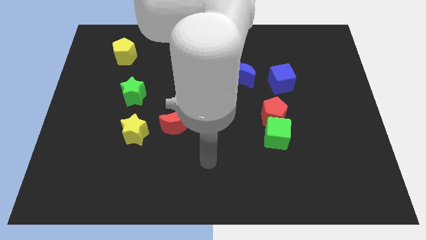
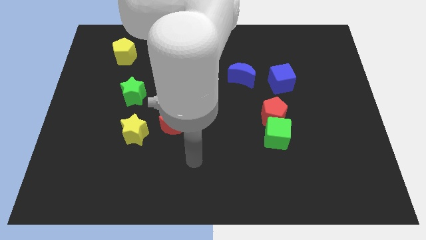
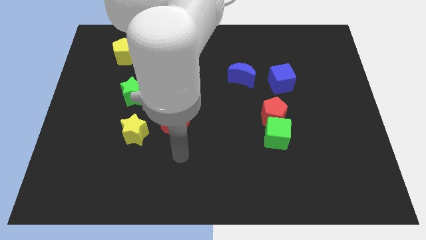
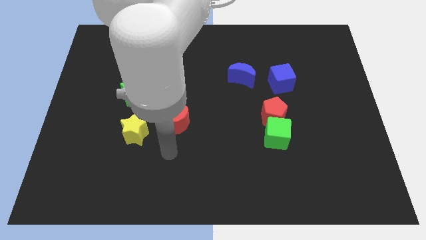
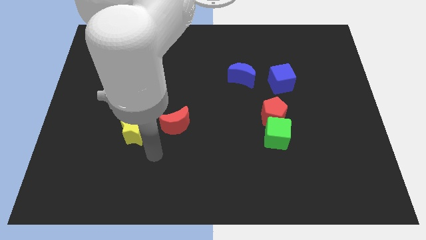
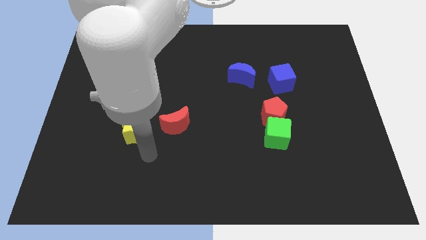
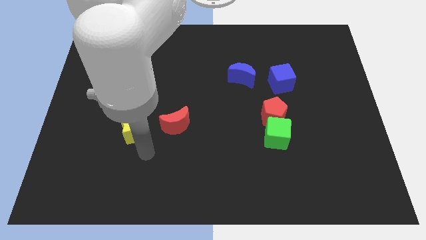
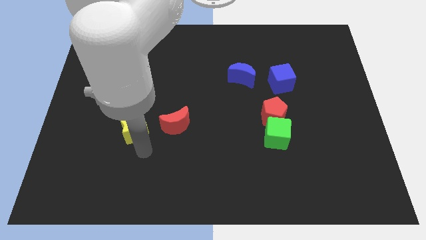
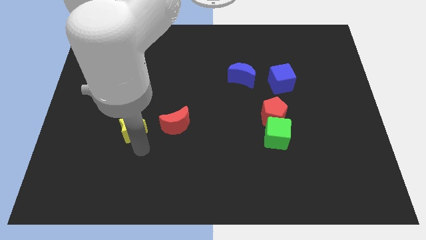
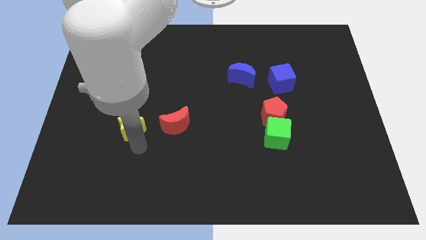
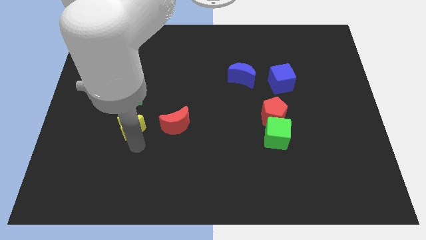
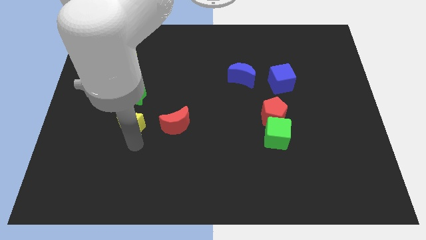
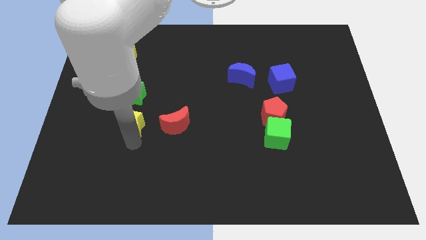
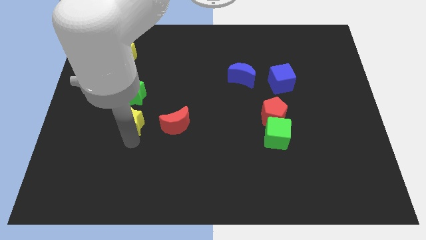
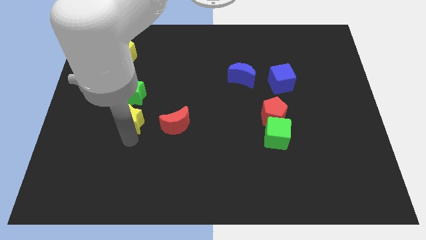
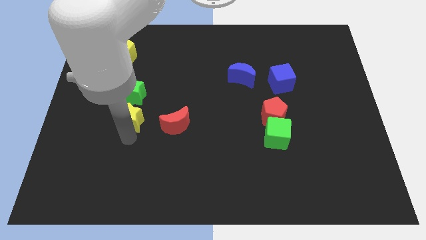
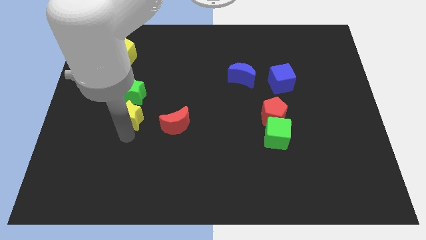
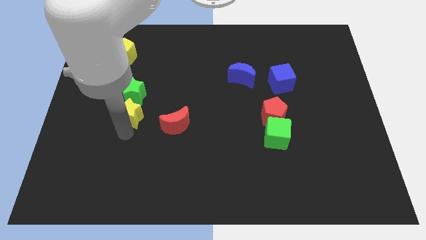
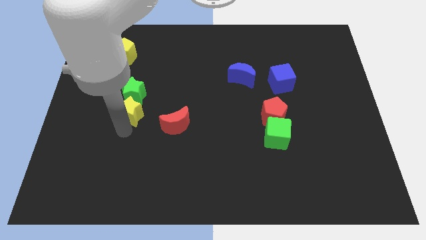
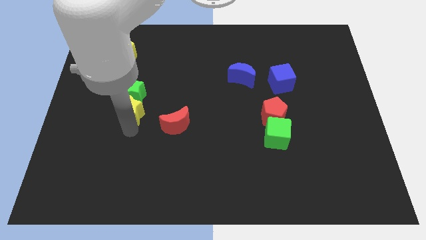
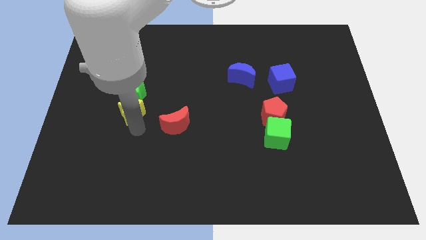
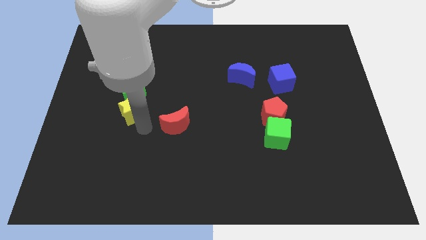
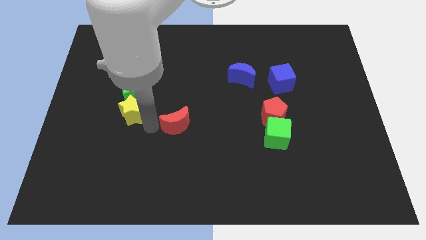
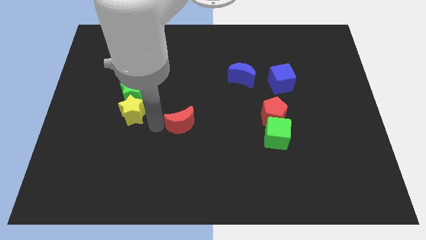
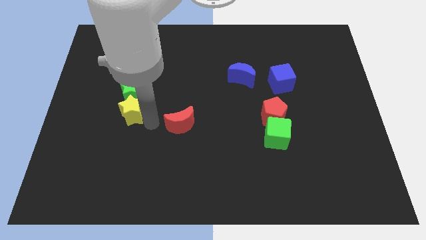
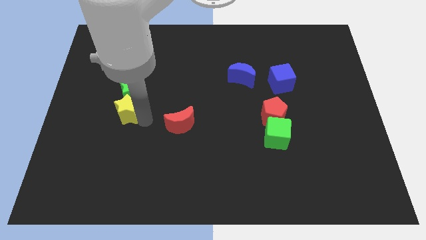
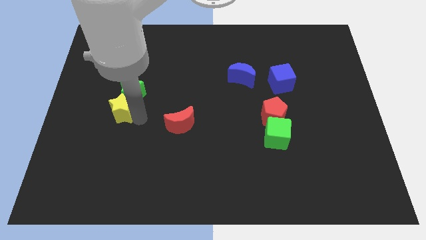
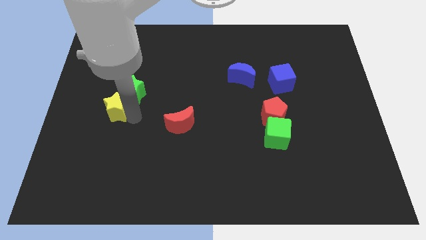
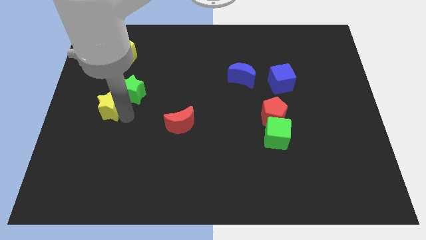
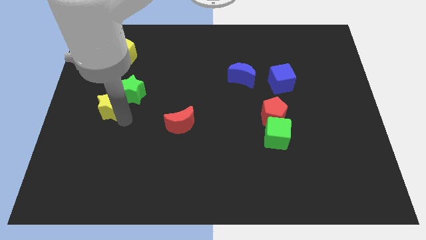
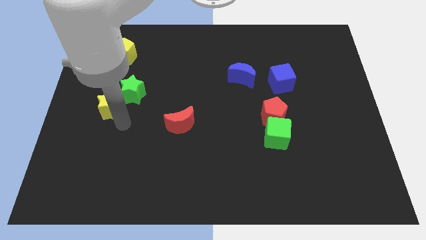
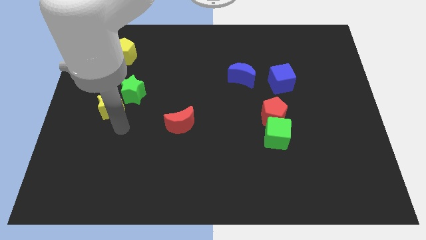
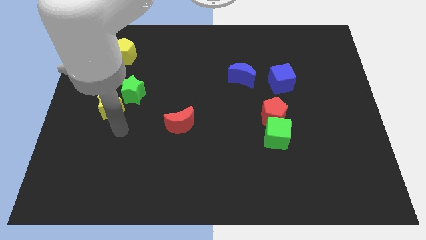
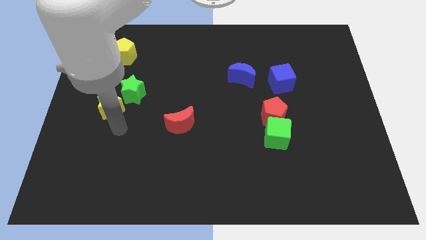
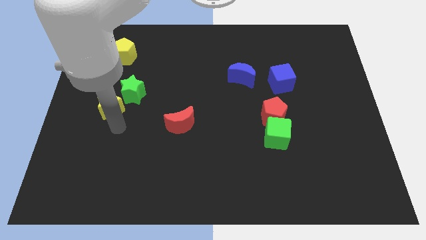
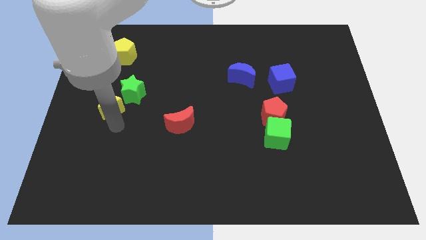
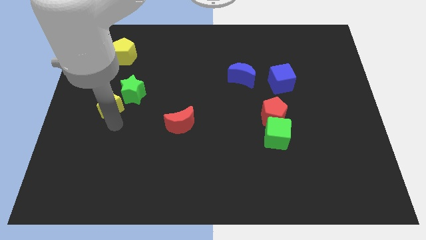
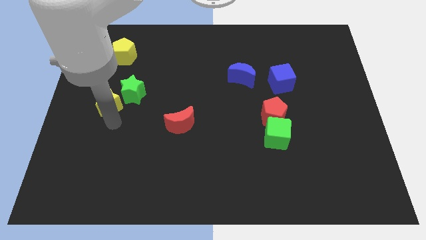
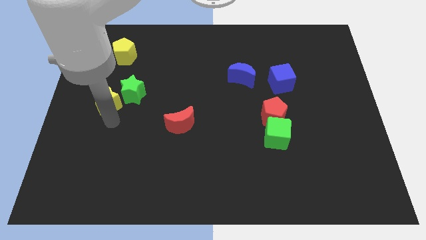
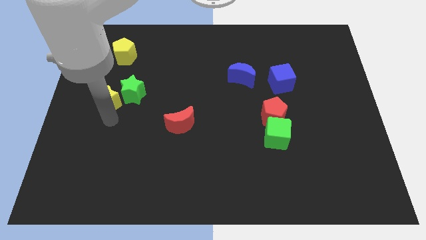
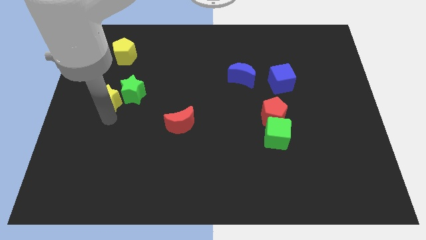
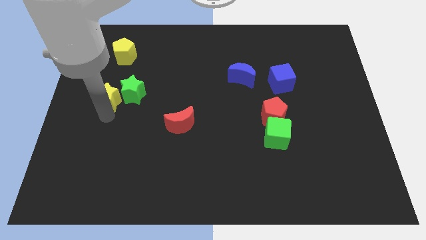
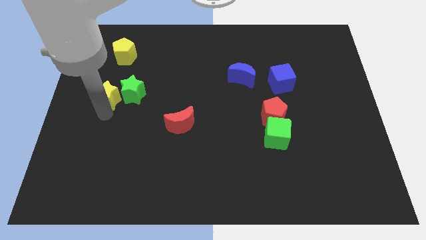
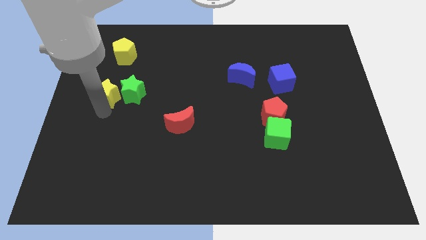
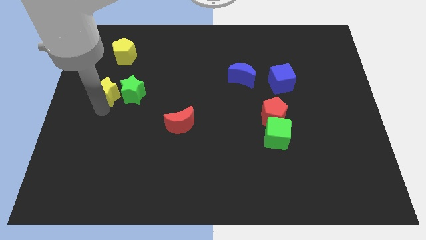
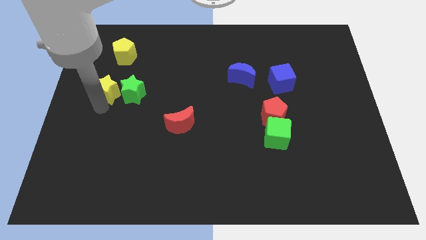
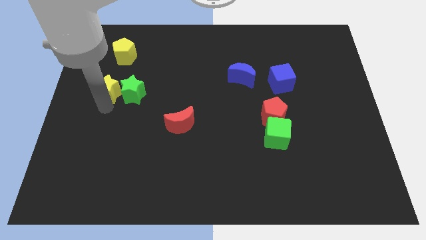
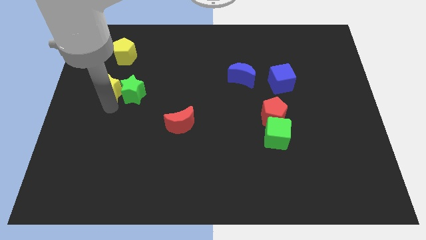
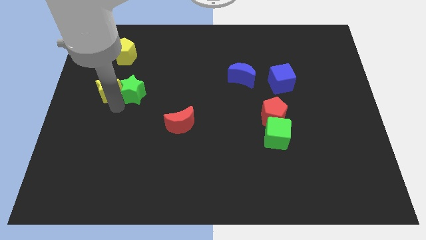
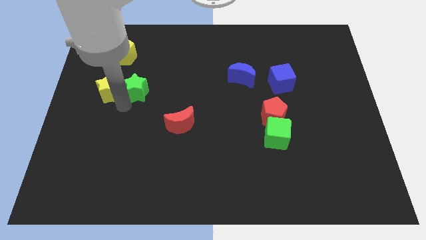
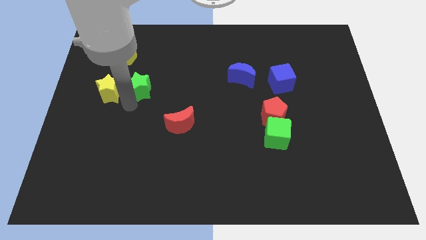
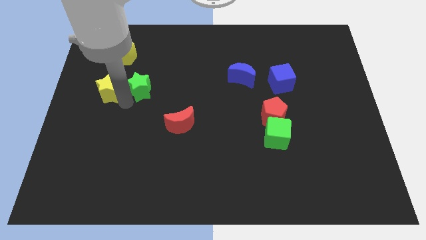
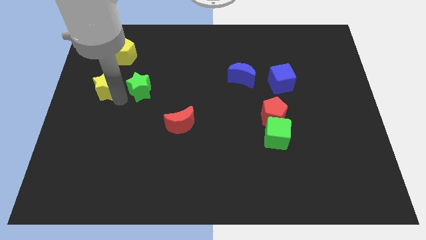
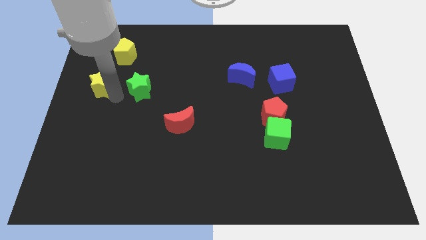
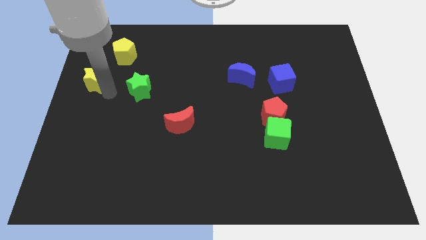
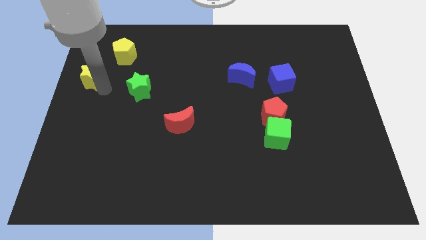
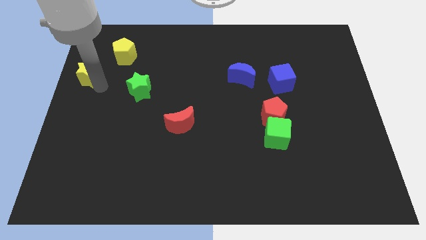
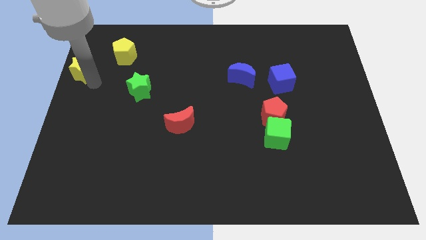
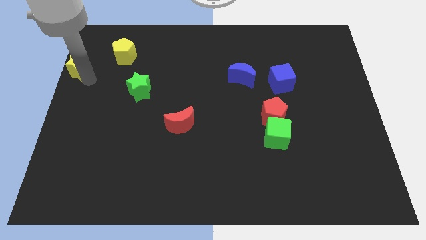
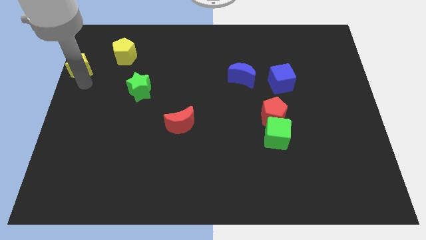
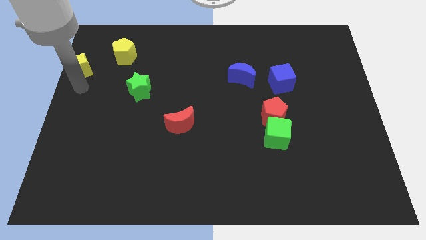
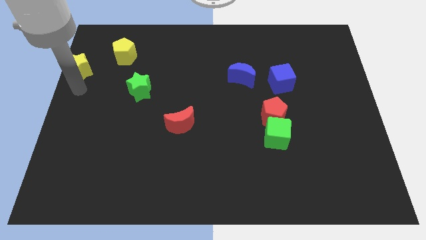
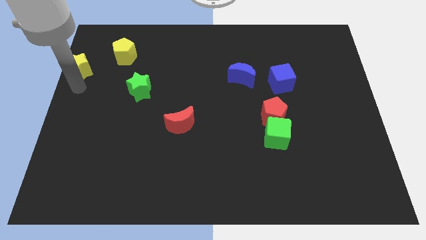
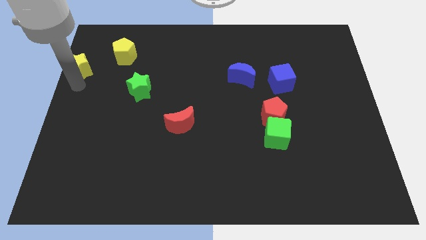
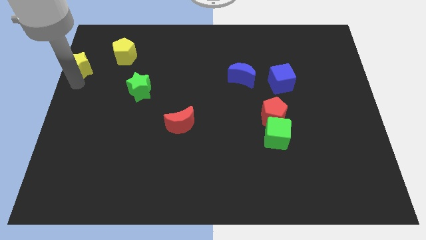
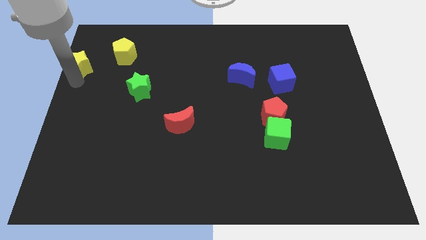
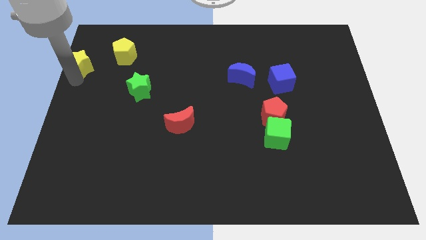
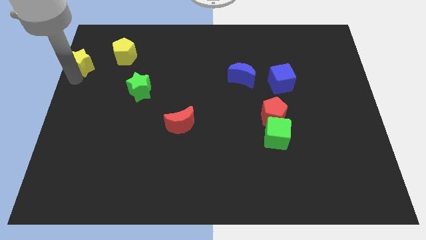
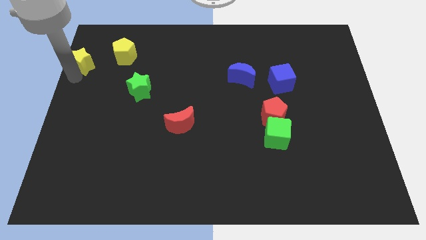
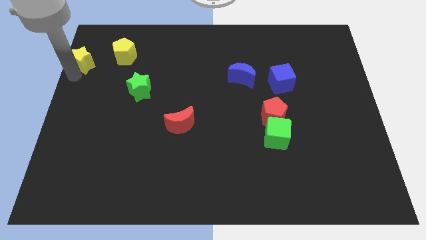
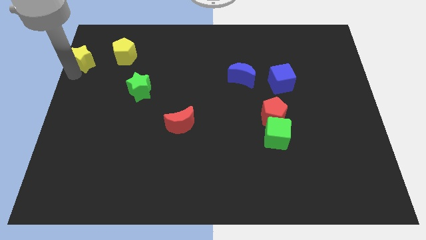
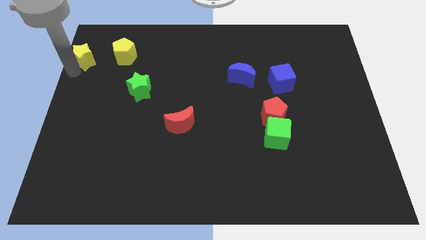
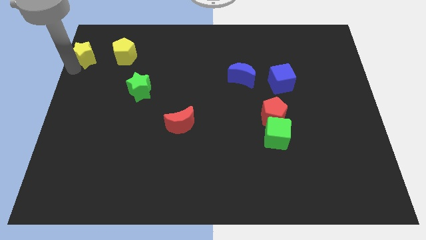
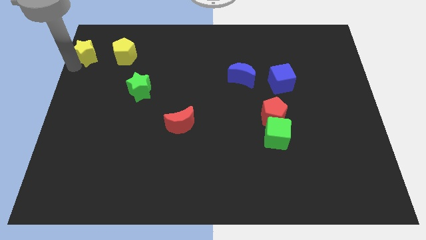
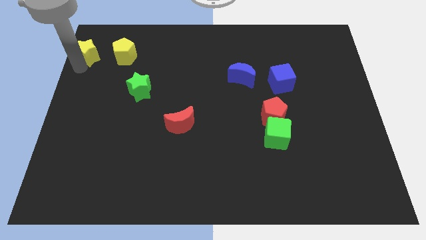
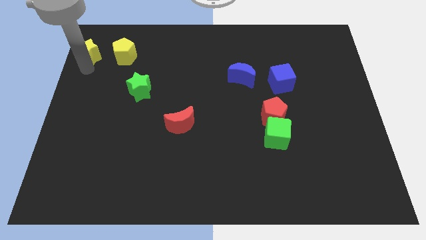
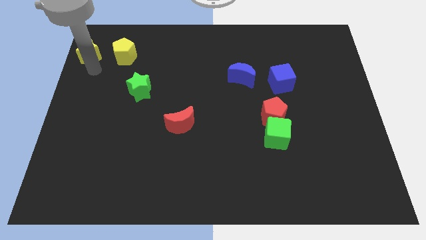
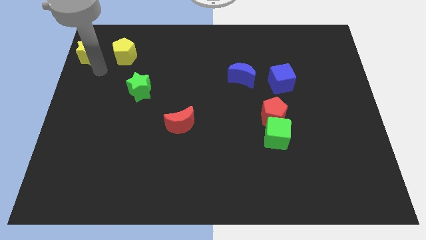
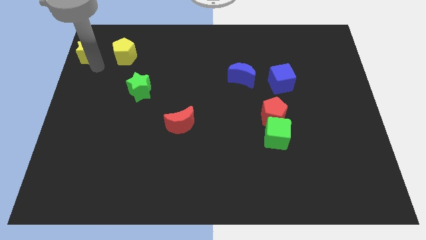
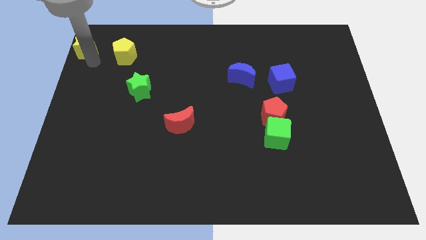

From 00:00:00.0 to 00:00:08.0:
move the yellow star to the top left corner
